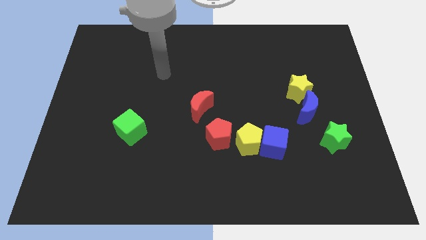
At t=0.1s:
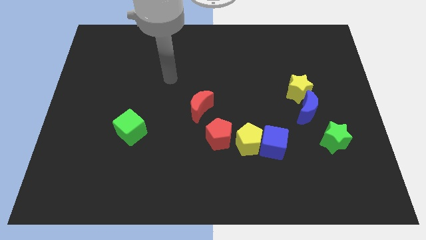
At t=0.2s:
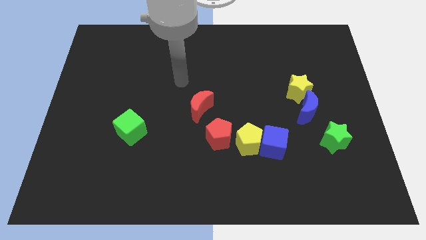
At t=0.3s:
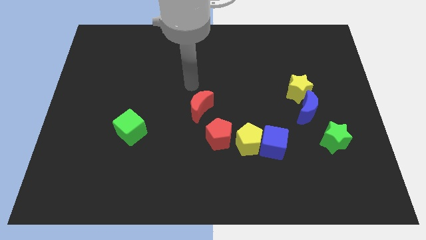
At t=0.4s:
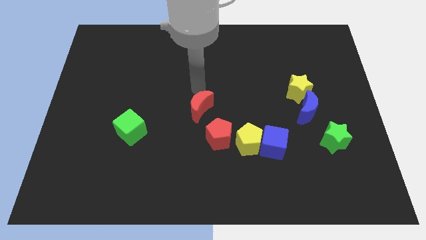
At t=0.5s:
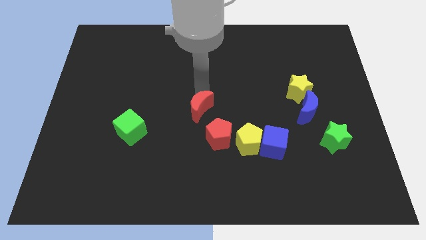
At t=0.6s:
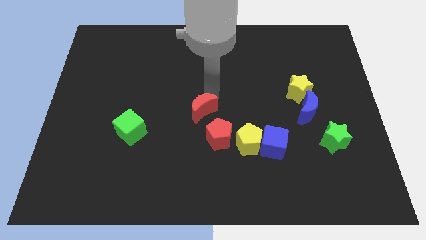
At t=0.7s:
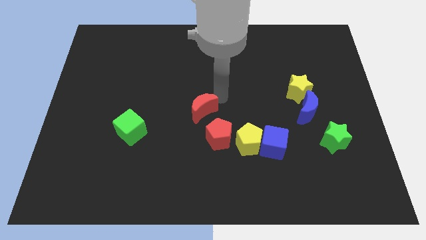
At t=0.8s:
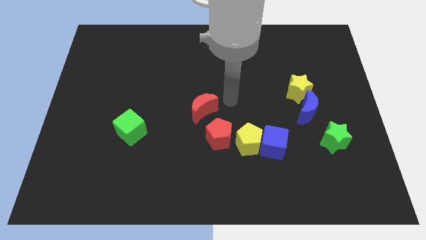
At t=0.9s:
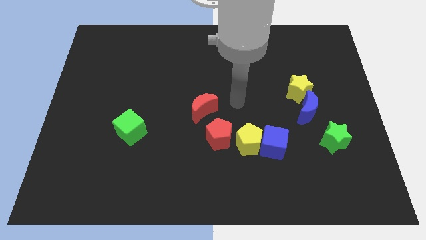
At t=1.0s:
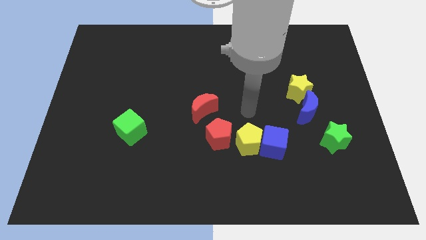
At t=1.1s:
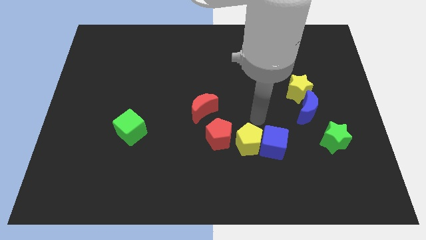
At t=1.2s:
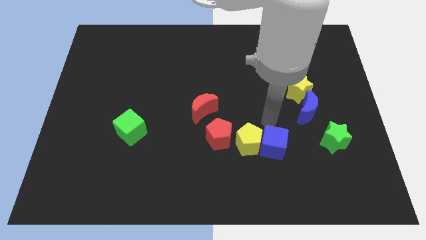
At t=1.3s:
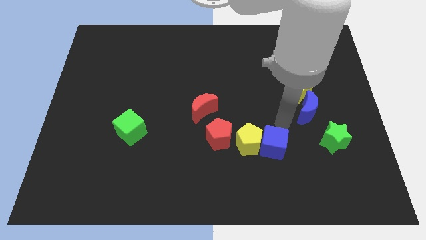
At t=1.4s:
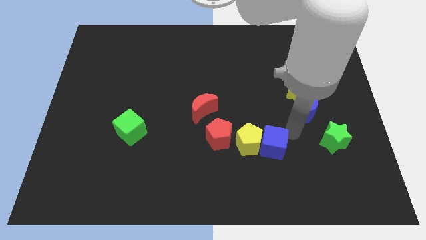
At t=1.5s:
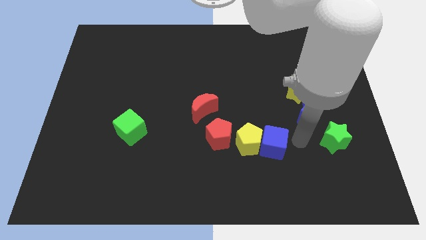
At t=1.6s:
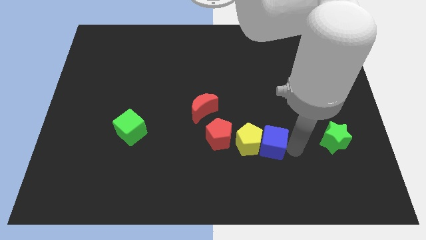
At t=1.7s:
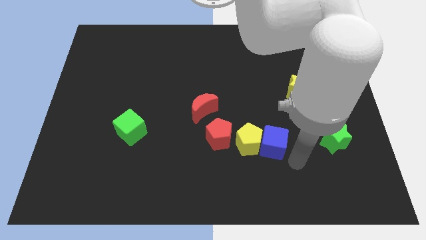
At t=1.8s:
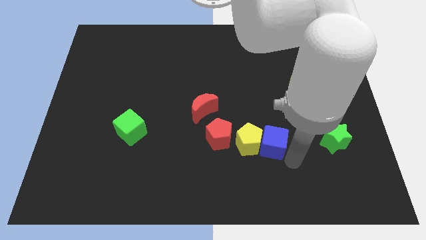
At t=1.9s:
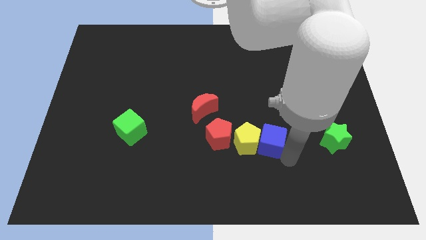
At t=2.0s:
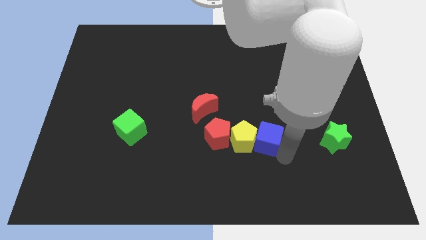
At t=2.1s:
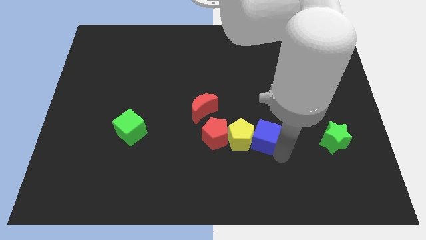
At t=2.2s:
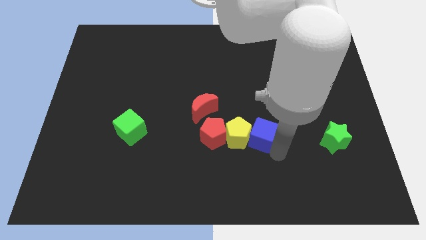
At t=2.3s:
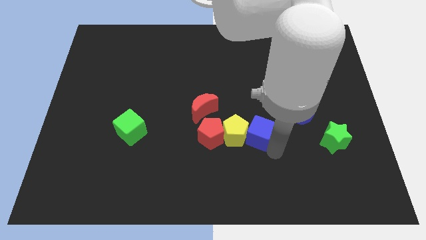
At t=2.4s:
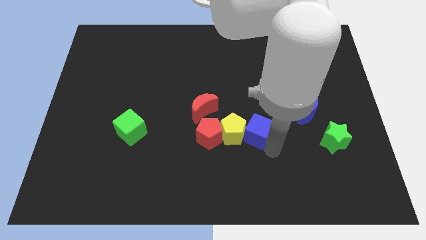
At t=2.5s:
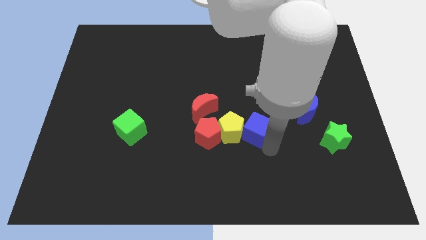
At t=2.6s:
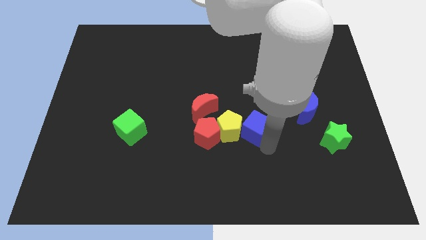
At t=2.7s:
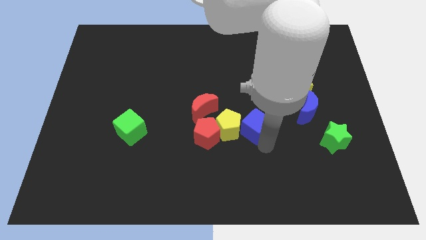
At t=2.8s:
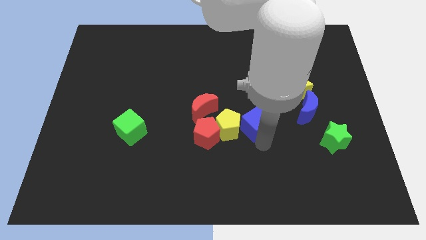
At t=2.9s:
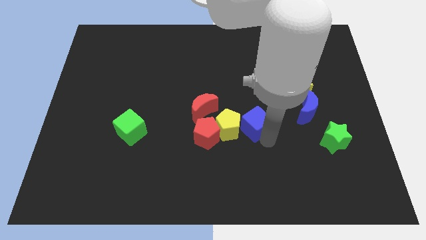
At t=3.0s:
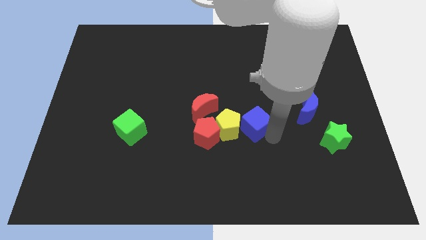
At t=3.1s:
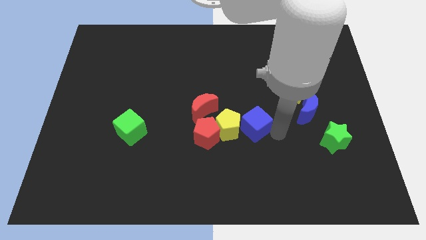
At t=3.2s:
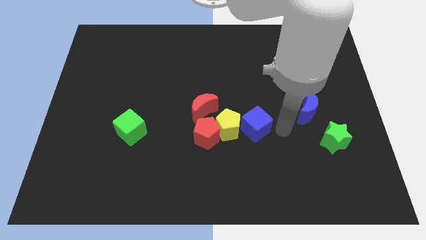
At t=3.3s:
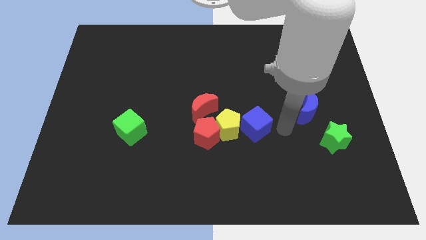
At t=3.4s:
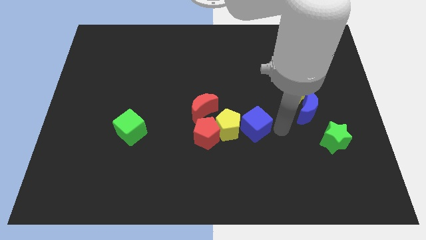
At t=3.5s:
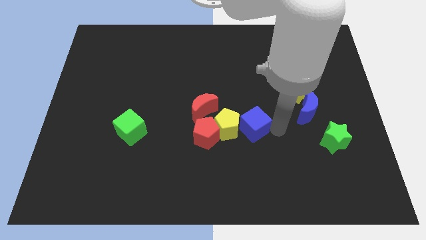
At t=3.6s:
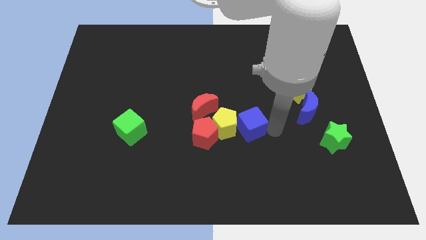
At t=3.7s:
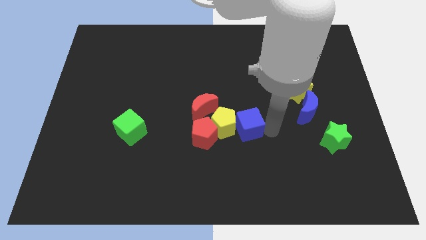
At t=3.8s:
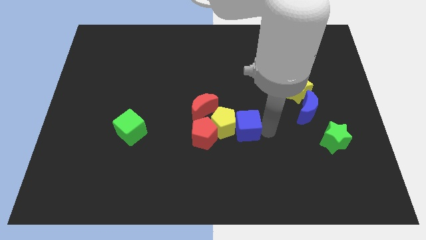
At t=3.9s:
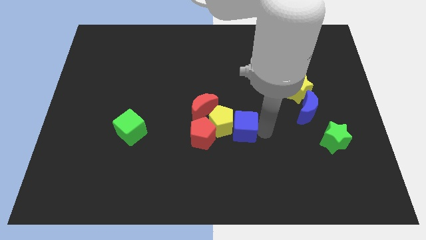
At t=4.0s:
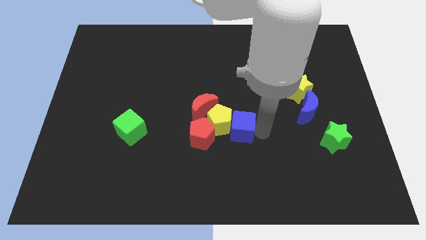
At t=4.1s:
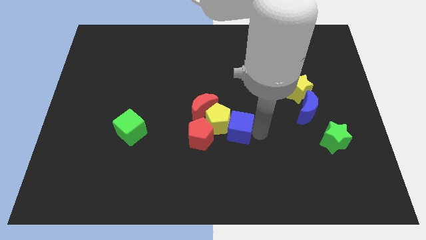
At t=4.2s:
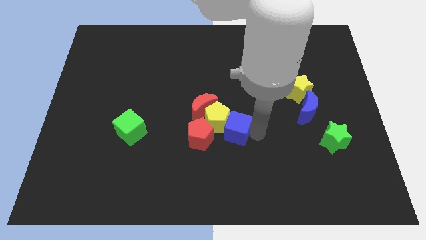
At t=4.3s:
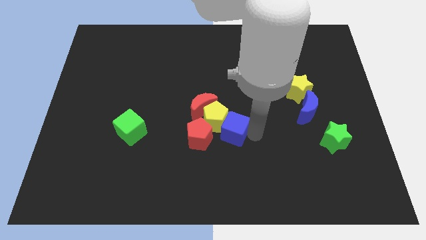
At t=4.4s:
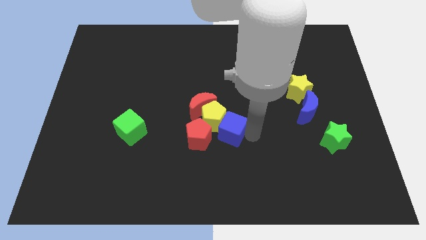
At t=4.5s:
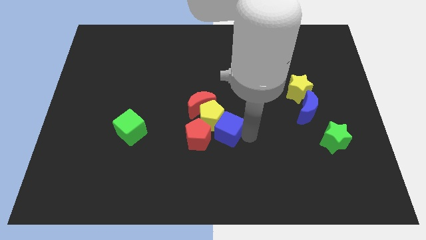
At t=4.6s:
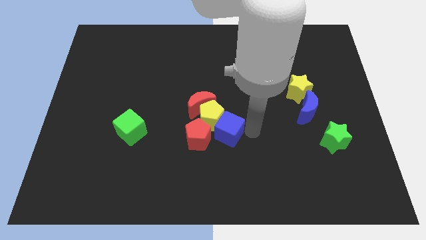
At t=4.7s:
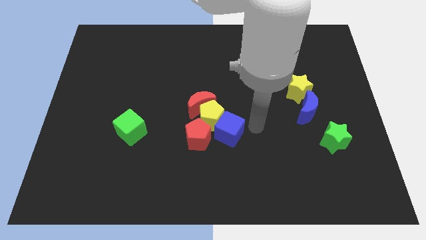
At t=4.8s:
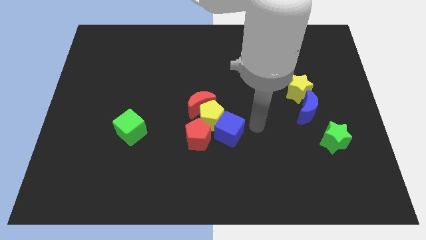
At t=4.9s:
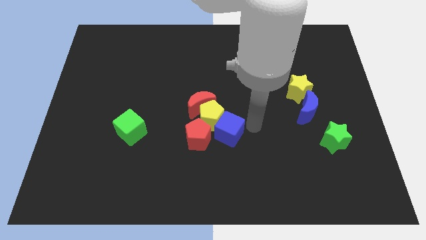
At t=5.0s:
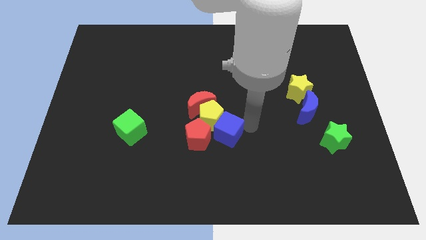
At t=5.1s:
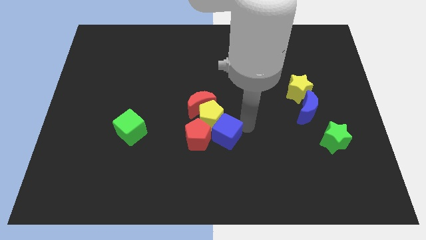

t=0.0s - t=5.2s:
move the blue cube to the red pentagon

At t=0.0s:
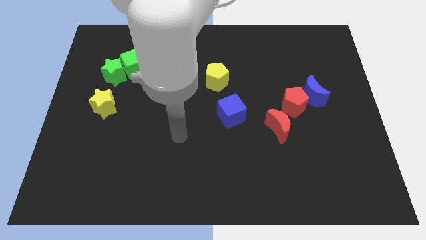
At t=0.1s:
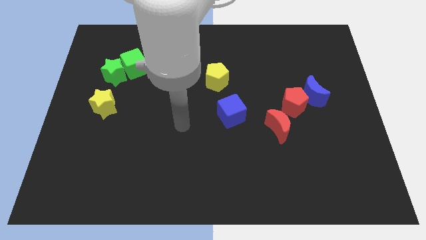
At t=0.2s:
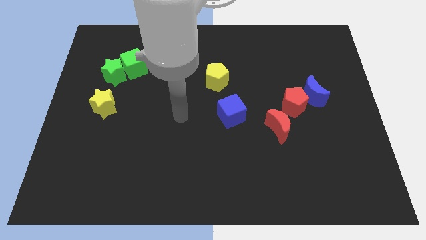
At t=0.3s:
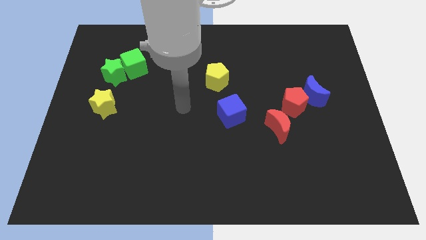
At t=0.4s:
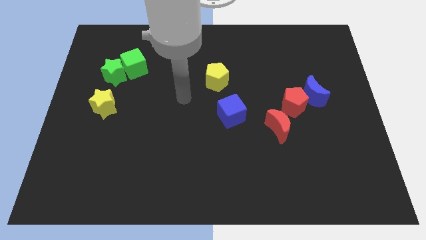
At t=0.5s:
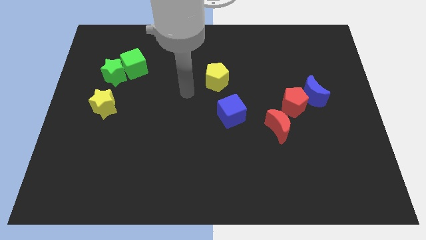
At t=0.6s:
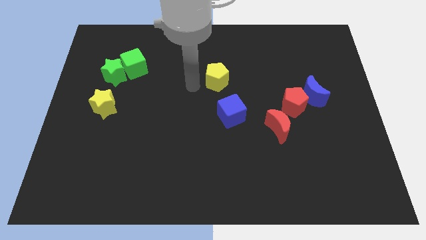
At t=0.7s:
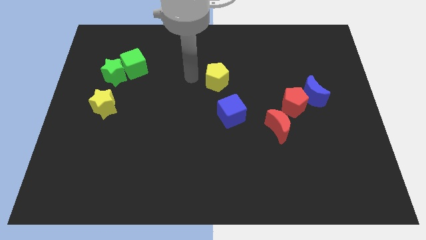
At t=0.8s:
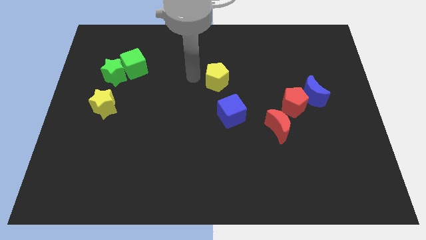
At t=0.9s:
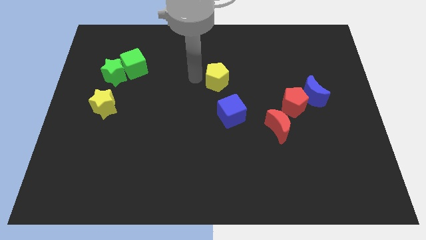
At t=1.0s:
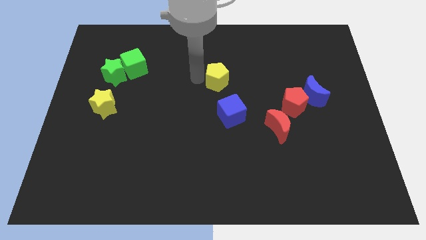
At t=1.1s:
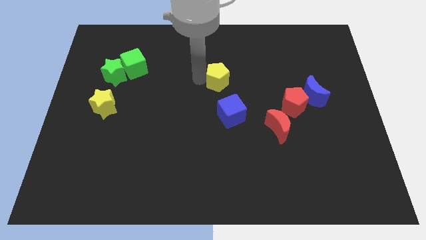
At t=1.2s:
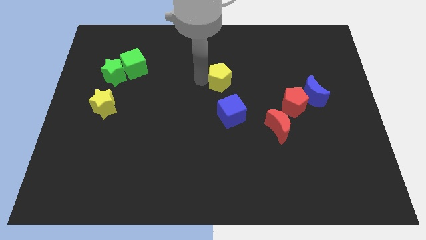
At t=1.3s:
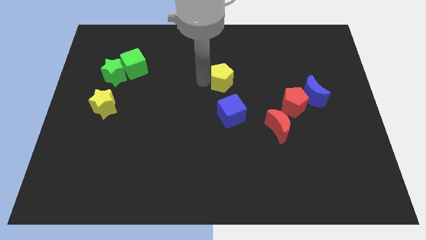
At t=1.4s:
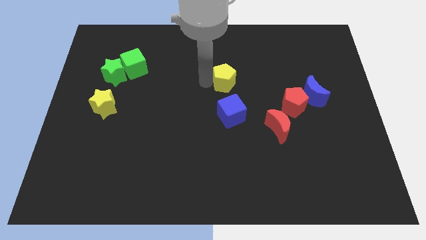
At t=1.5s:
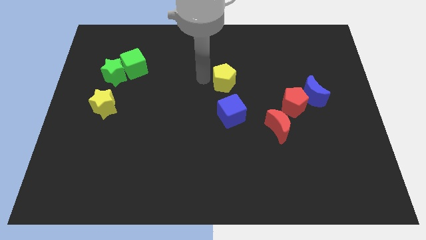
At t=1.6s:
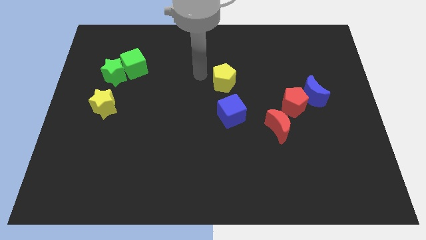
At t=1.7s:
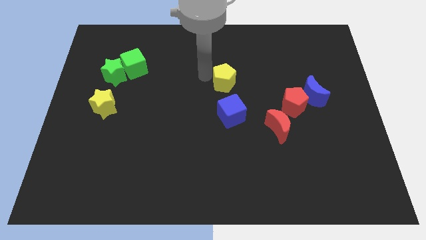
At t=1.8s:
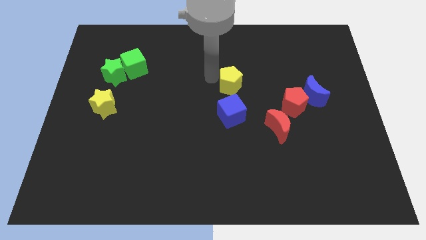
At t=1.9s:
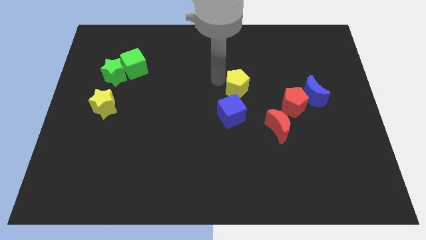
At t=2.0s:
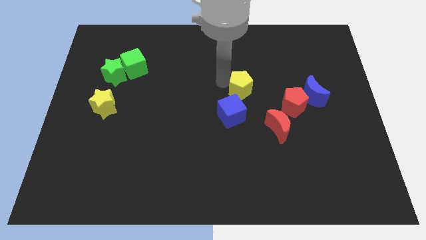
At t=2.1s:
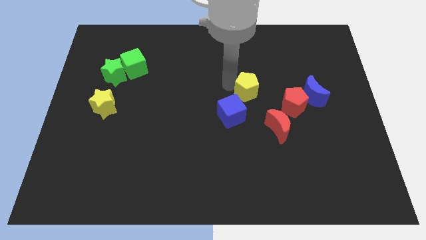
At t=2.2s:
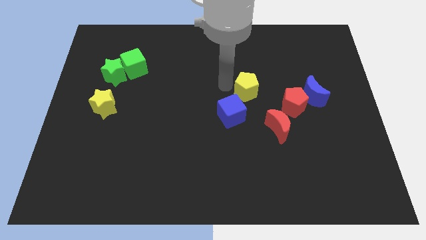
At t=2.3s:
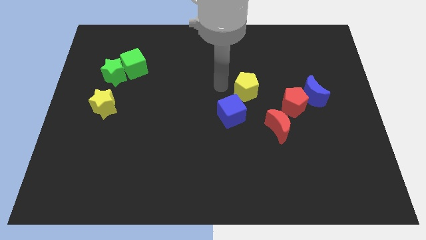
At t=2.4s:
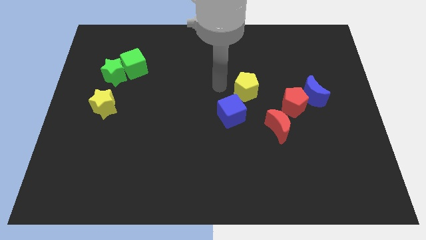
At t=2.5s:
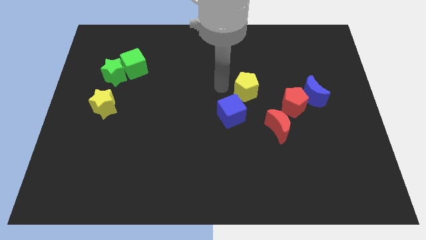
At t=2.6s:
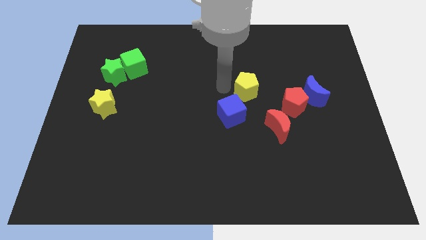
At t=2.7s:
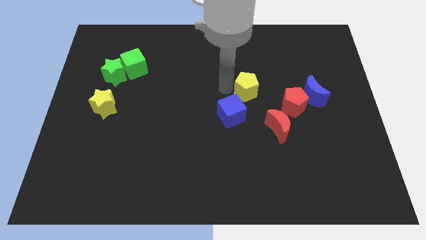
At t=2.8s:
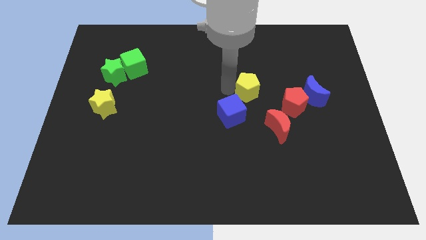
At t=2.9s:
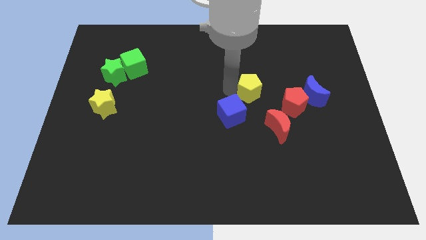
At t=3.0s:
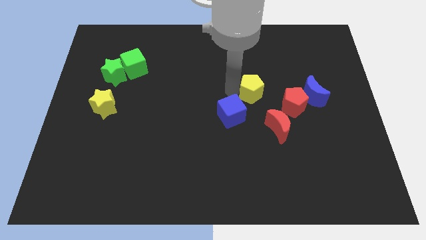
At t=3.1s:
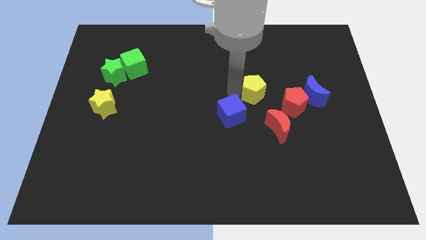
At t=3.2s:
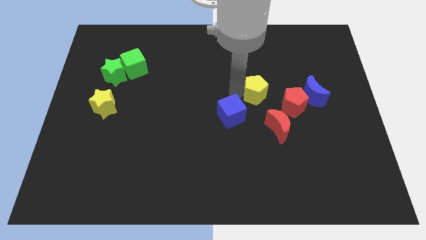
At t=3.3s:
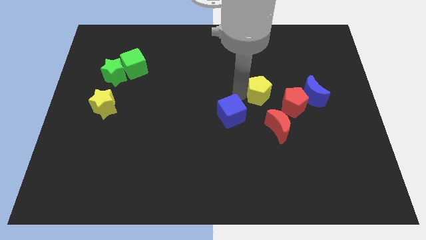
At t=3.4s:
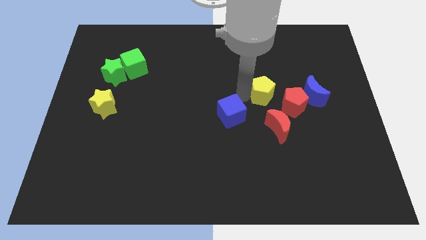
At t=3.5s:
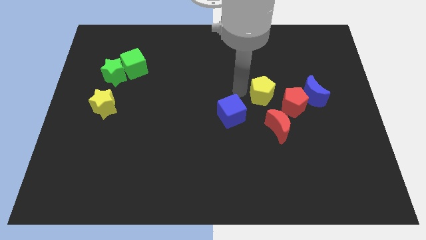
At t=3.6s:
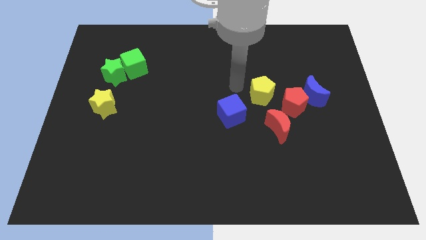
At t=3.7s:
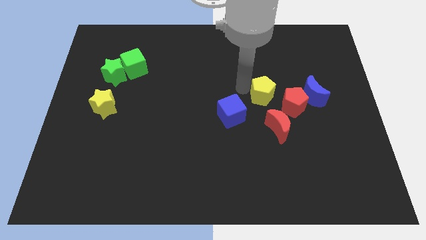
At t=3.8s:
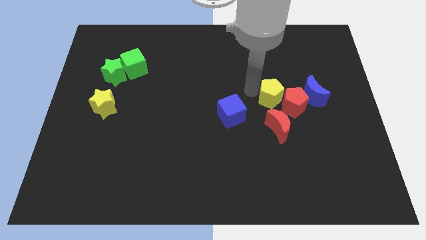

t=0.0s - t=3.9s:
slide the yellow pentagon to the red pentagon
